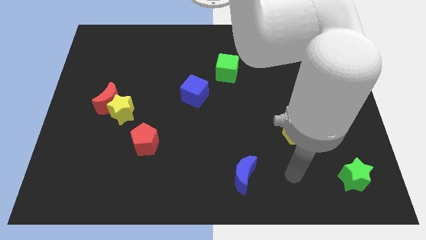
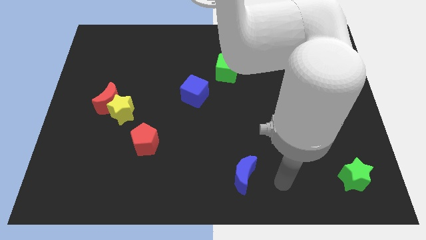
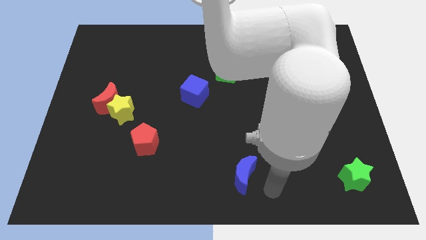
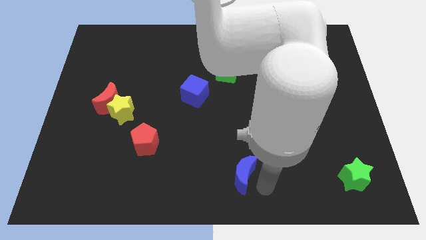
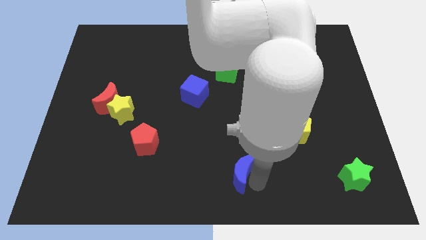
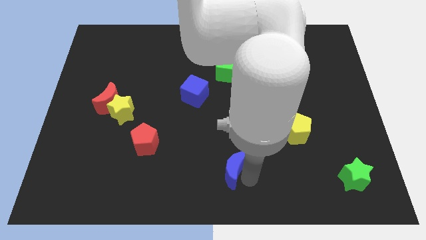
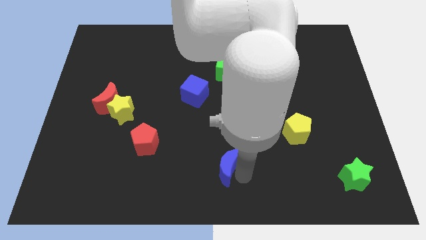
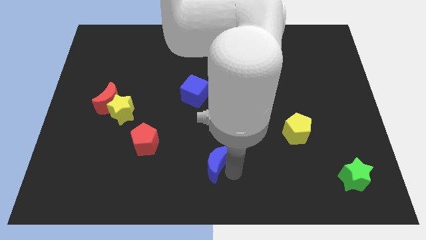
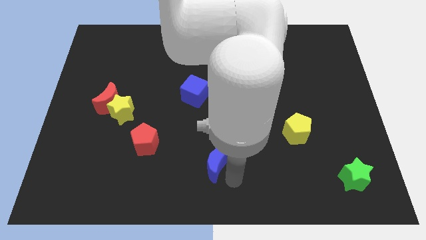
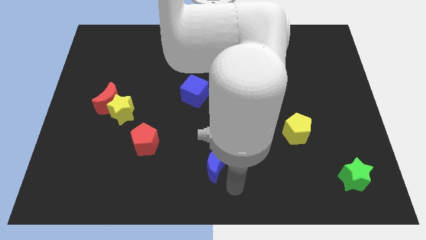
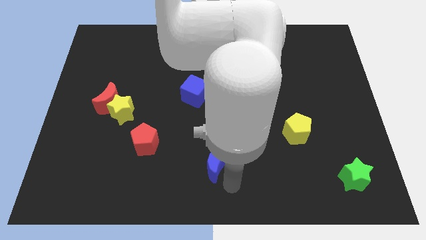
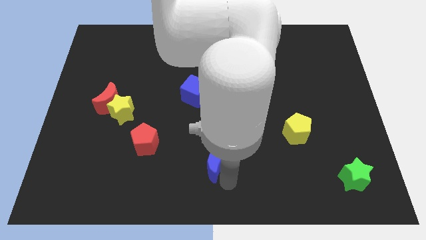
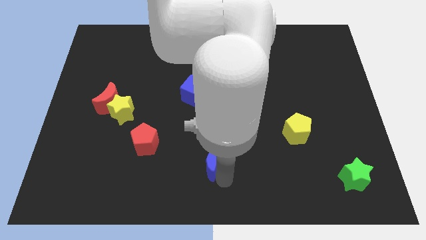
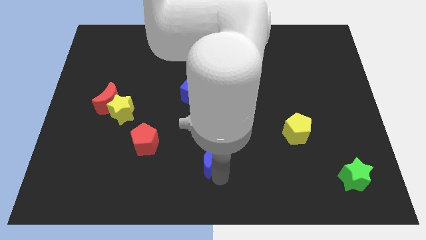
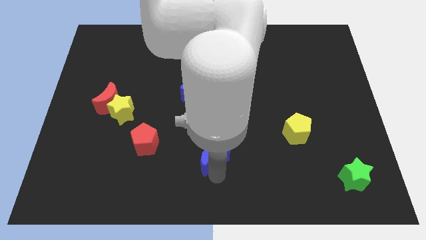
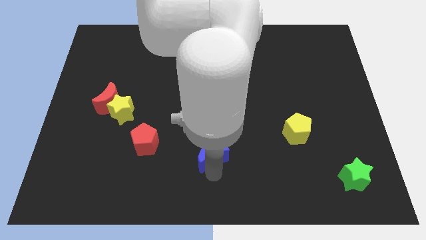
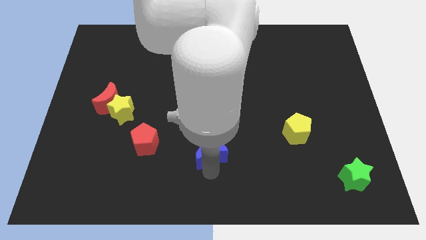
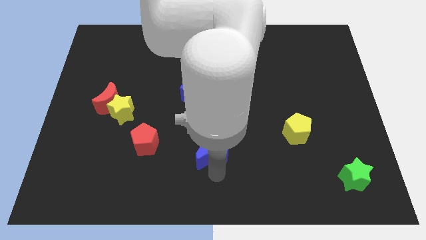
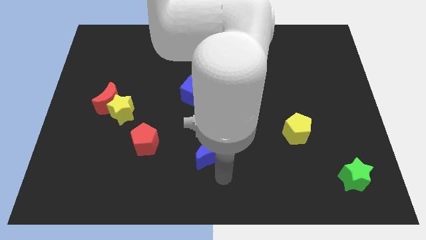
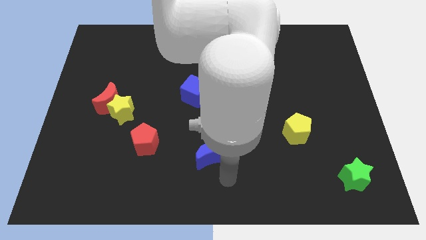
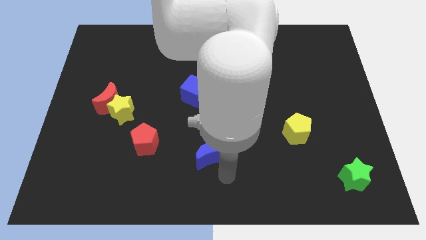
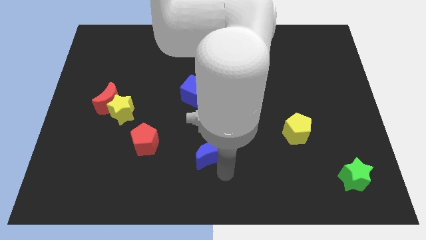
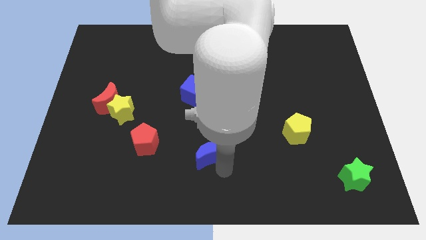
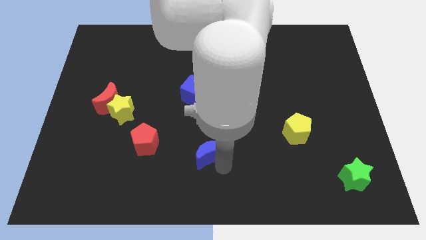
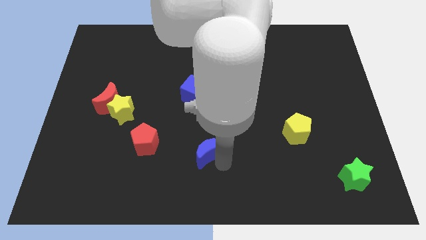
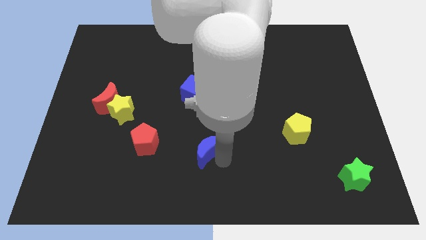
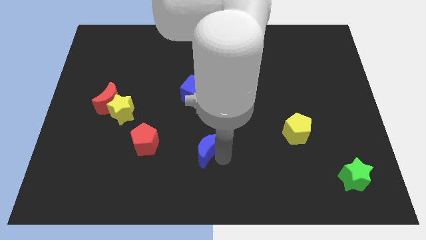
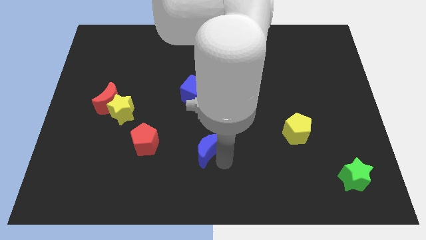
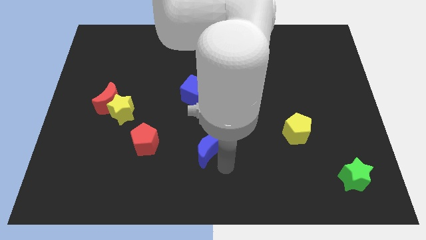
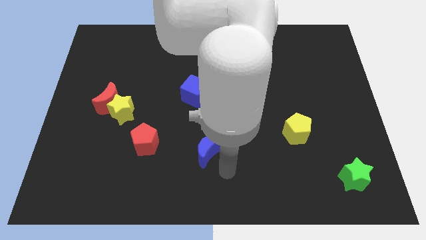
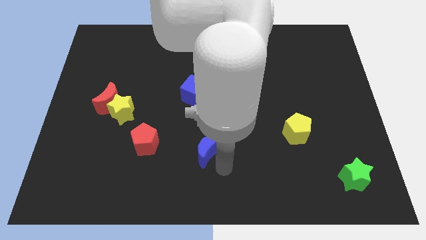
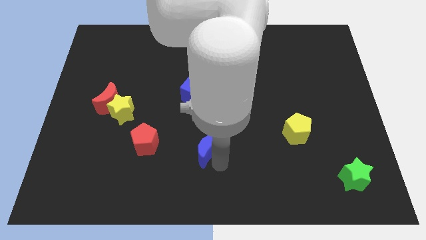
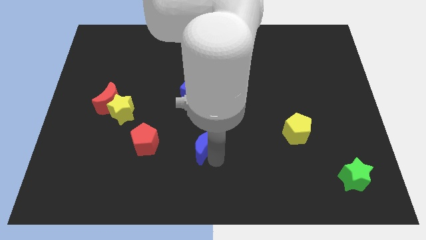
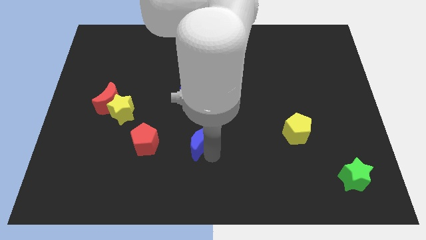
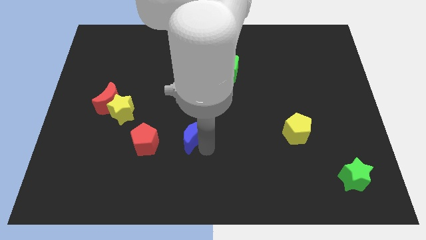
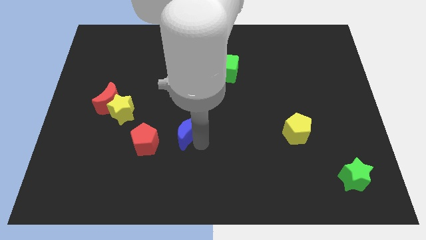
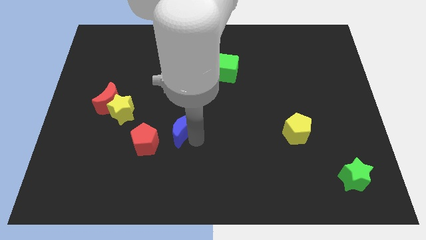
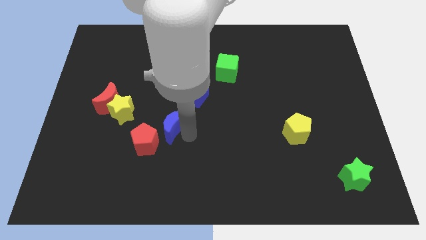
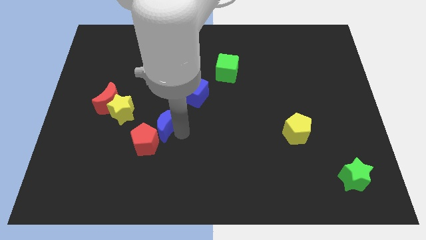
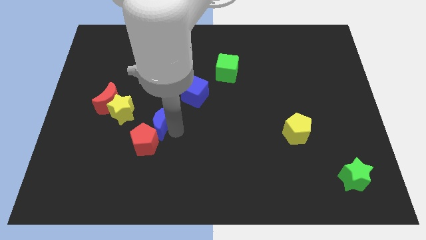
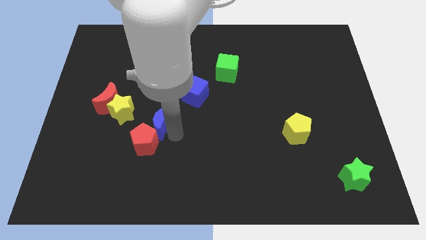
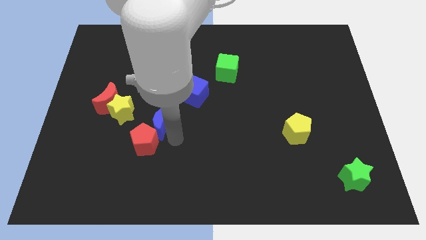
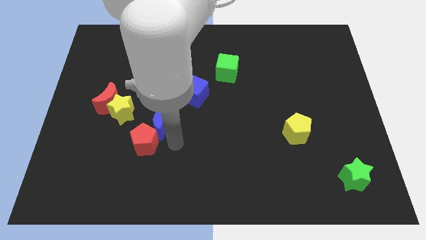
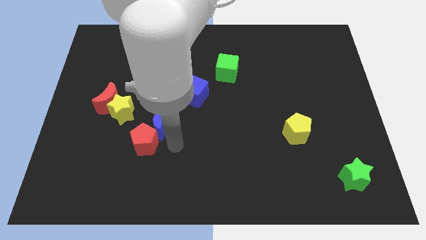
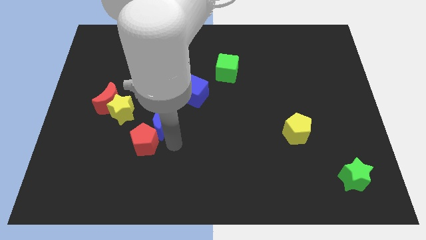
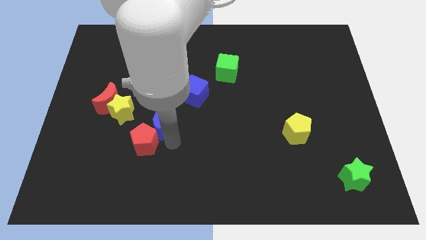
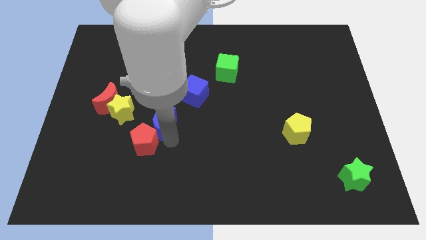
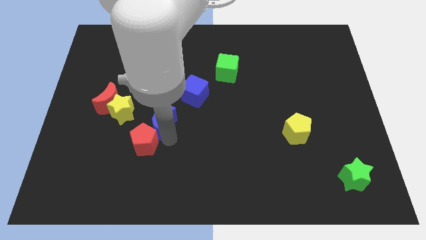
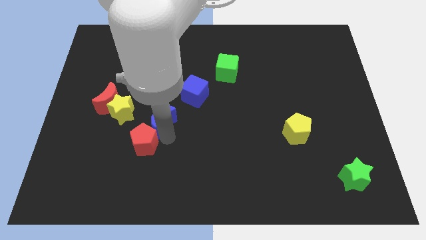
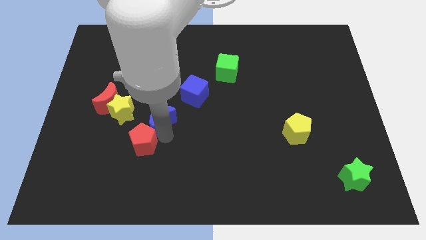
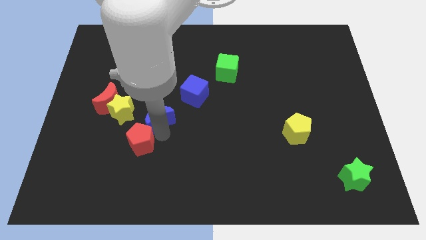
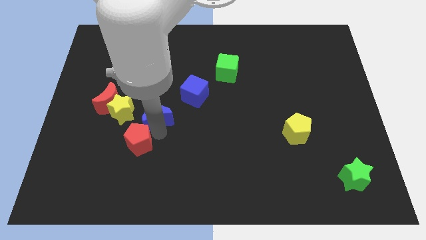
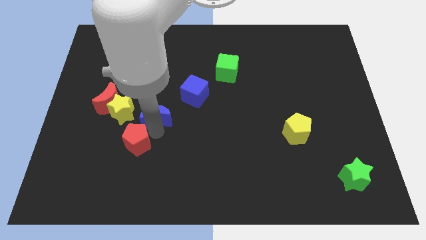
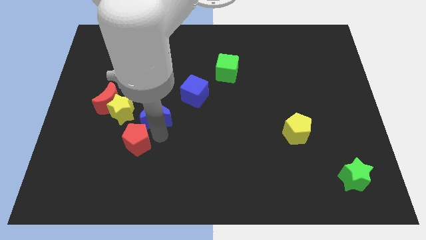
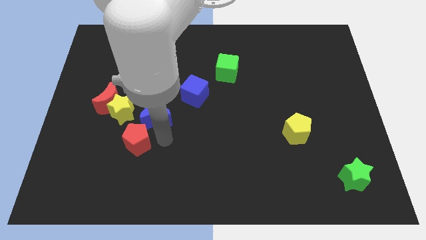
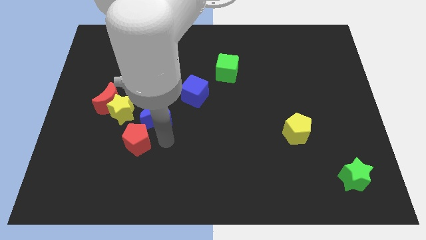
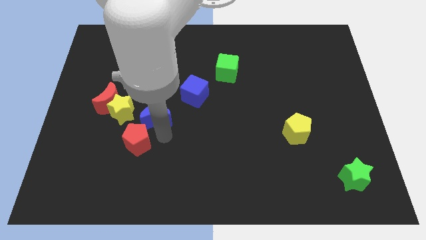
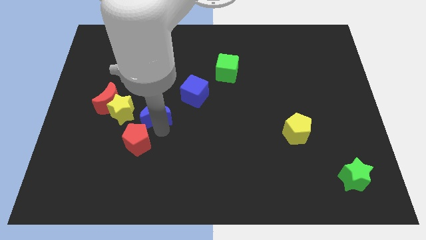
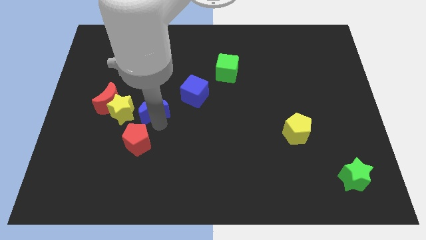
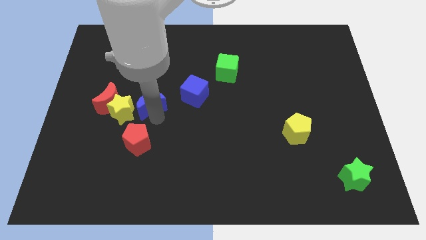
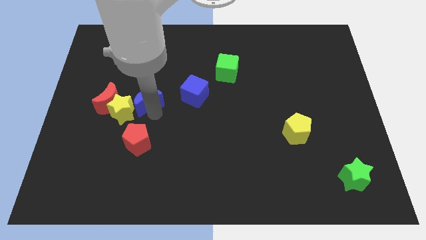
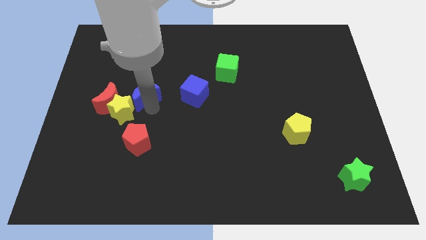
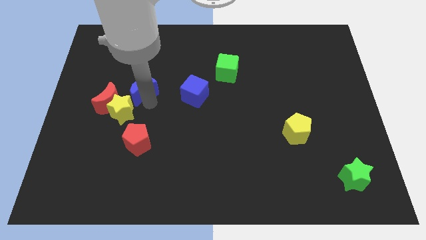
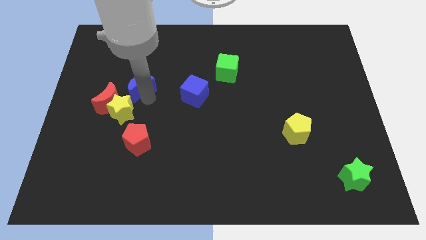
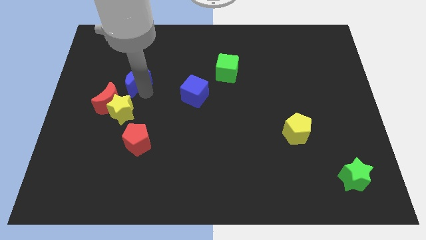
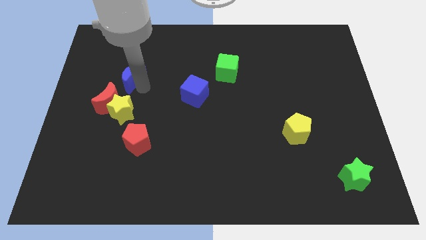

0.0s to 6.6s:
put the blue moon to the top side of the red moon
